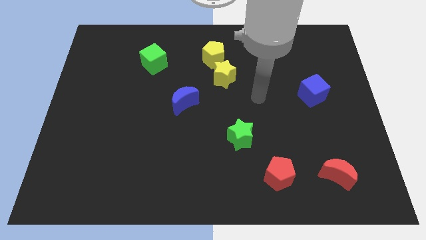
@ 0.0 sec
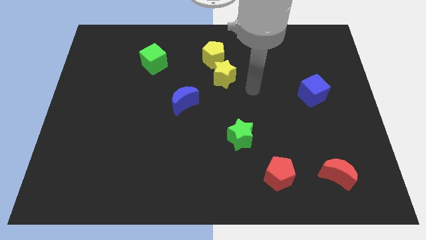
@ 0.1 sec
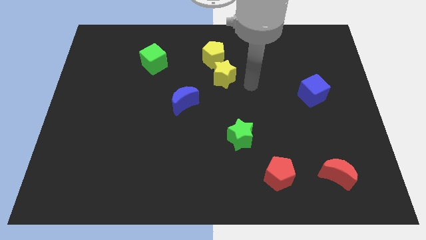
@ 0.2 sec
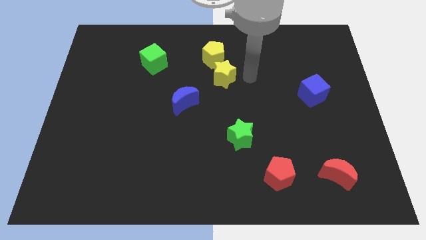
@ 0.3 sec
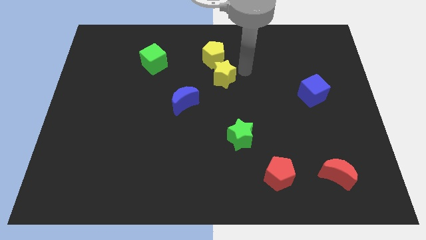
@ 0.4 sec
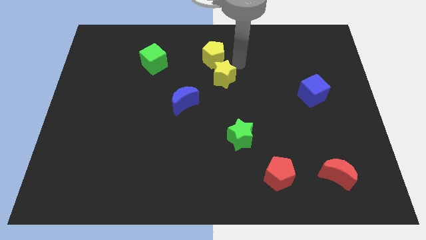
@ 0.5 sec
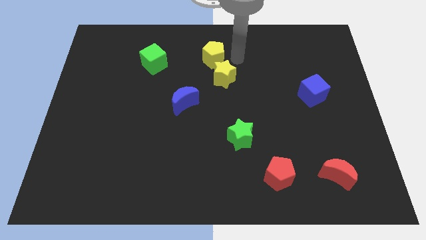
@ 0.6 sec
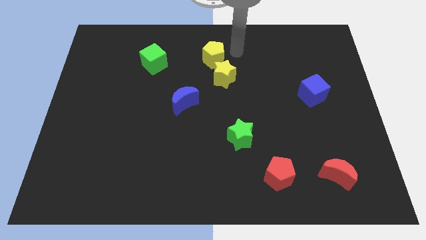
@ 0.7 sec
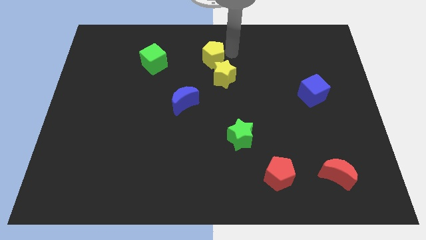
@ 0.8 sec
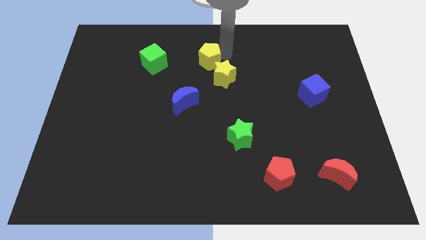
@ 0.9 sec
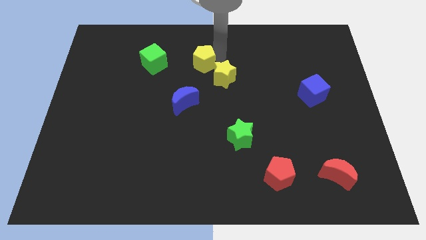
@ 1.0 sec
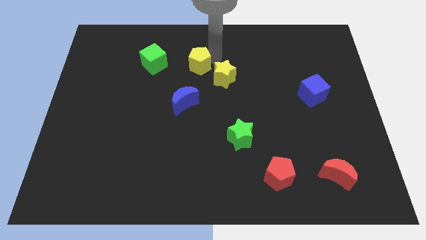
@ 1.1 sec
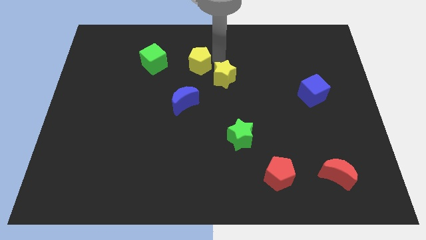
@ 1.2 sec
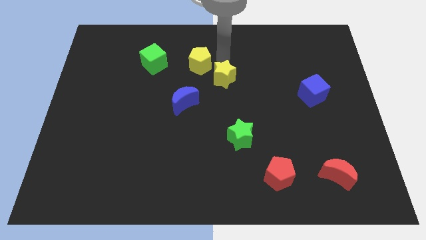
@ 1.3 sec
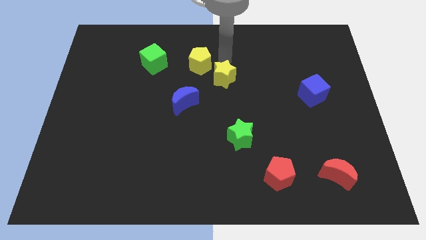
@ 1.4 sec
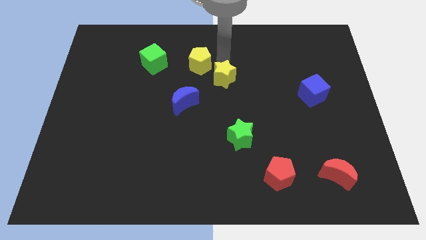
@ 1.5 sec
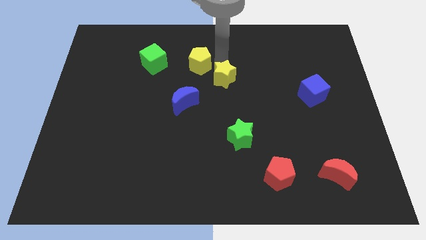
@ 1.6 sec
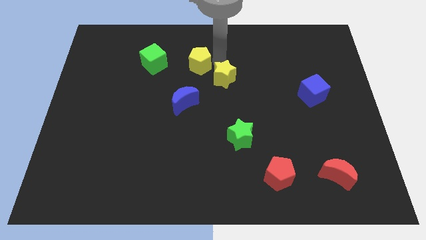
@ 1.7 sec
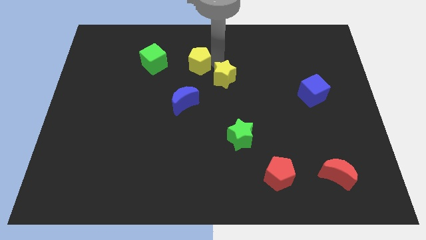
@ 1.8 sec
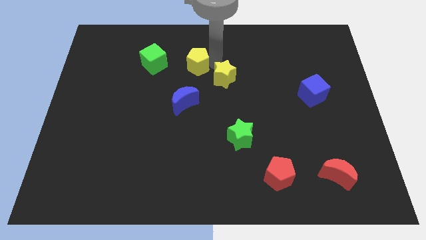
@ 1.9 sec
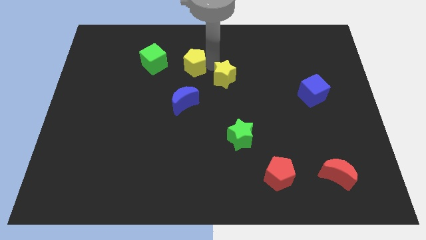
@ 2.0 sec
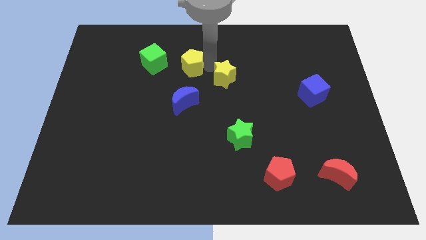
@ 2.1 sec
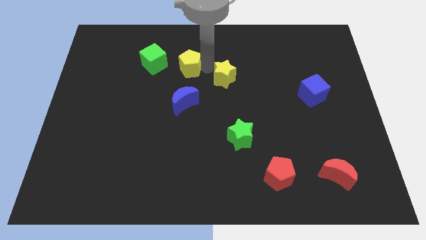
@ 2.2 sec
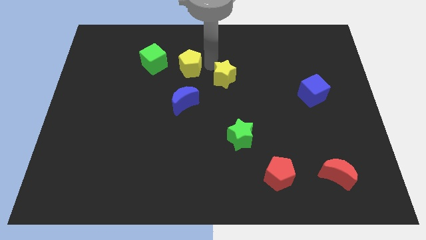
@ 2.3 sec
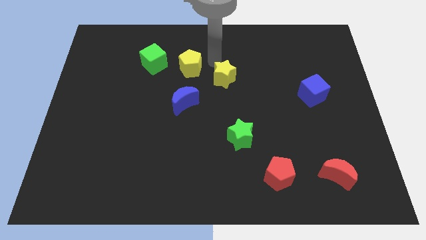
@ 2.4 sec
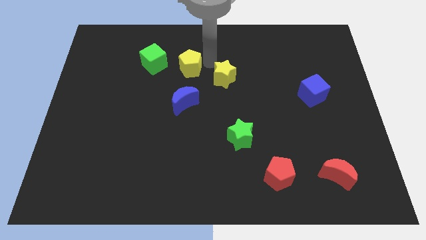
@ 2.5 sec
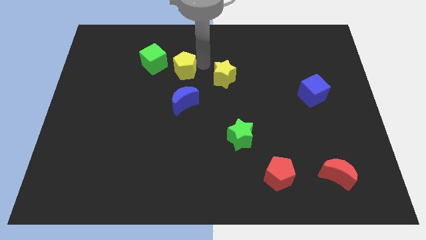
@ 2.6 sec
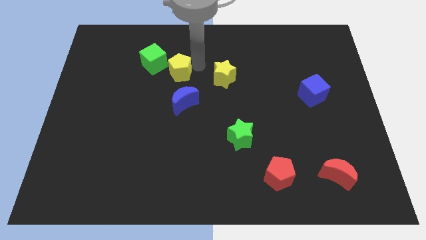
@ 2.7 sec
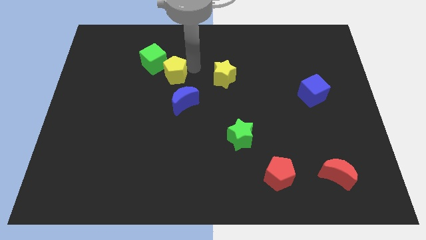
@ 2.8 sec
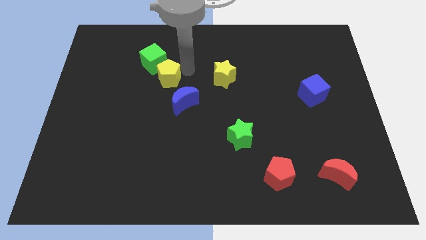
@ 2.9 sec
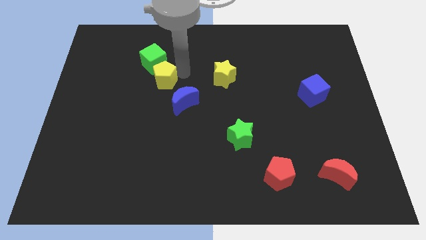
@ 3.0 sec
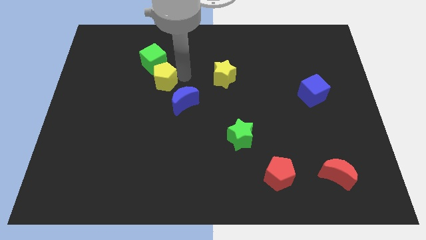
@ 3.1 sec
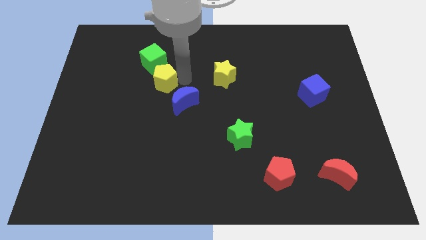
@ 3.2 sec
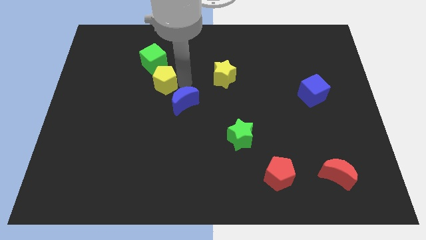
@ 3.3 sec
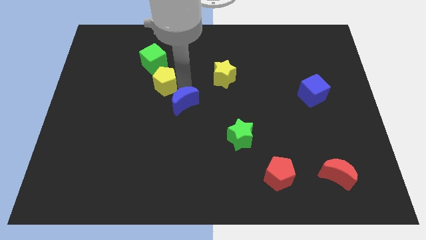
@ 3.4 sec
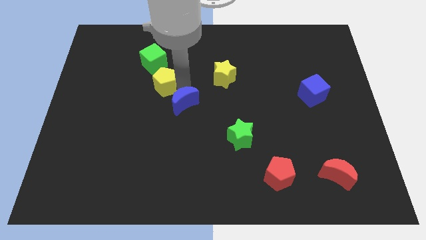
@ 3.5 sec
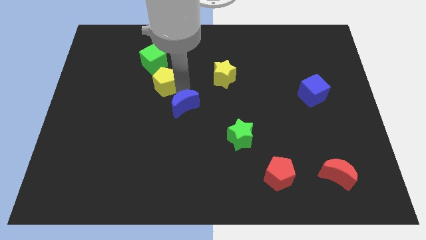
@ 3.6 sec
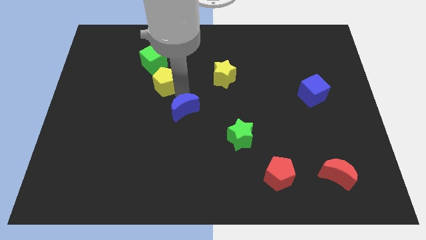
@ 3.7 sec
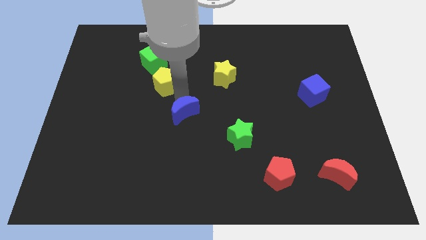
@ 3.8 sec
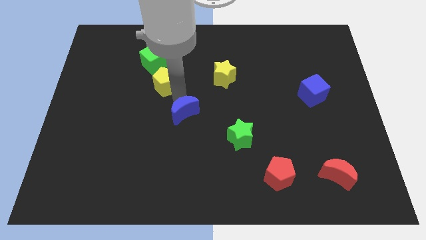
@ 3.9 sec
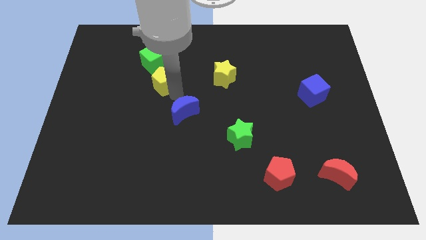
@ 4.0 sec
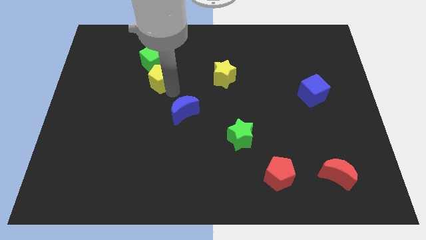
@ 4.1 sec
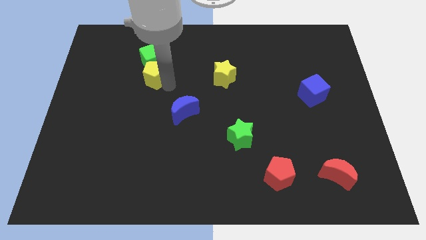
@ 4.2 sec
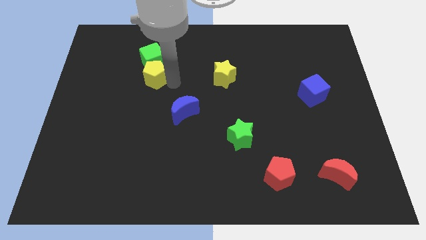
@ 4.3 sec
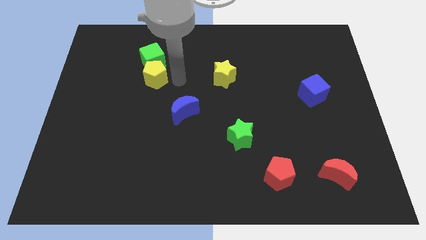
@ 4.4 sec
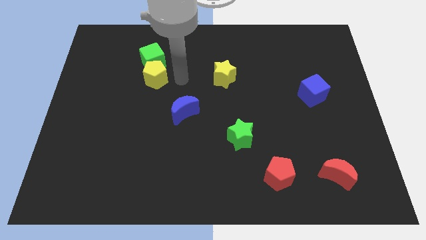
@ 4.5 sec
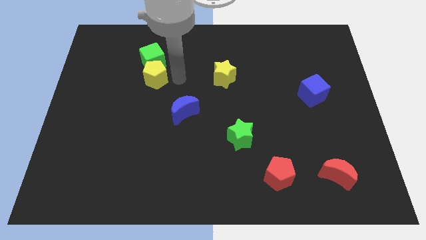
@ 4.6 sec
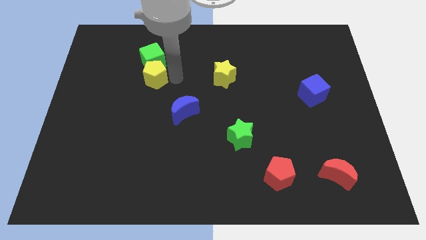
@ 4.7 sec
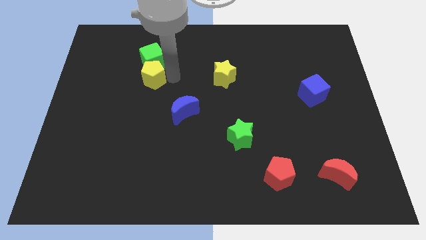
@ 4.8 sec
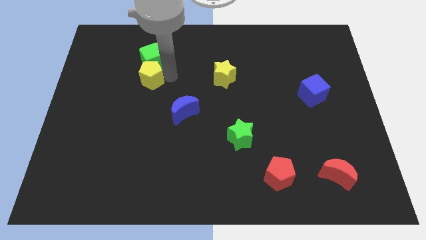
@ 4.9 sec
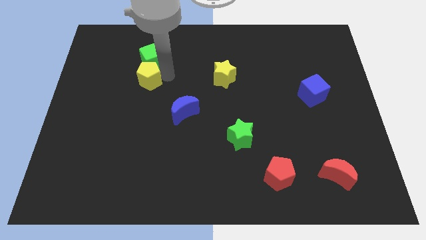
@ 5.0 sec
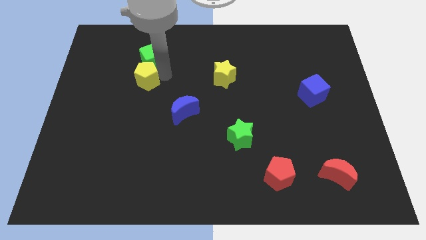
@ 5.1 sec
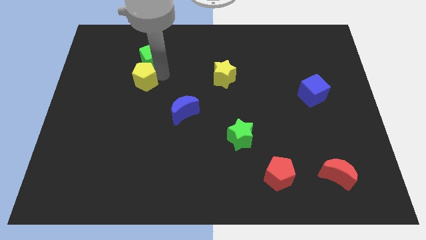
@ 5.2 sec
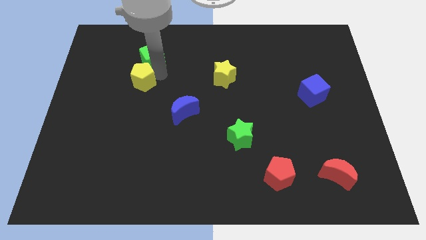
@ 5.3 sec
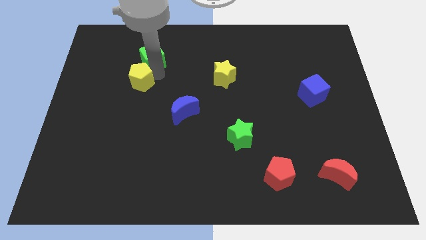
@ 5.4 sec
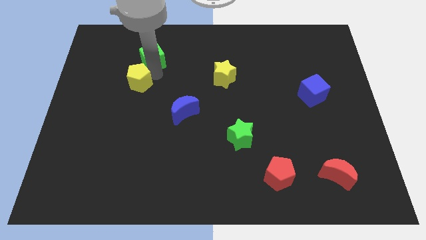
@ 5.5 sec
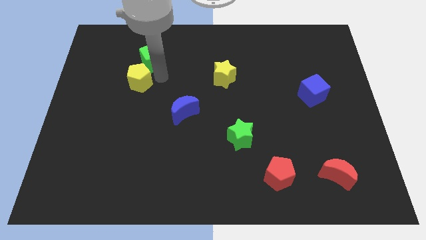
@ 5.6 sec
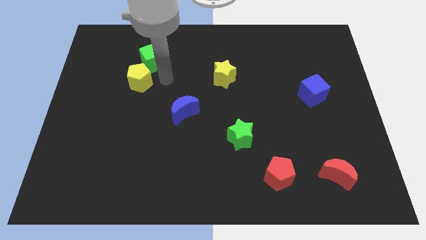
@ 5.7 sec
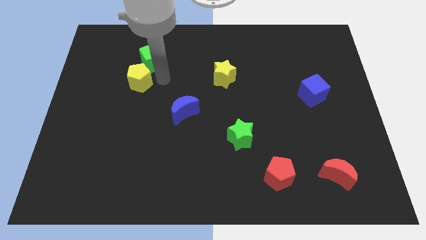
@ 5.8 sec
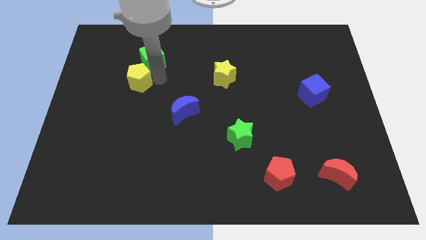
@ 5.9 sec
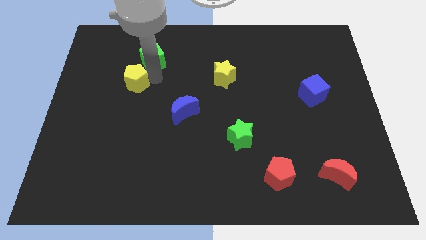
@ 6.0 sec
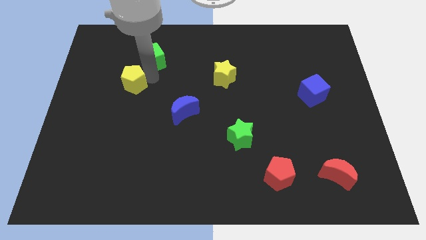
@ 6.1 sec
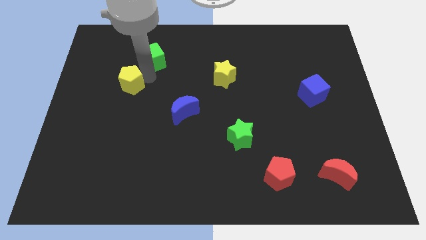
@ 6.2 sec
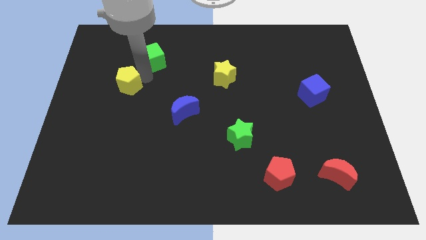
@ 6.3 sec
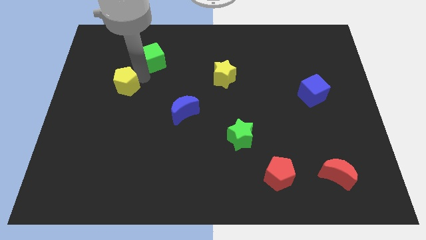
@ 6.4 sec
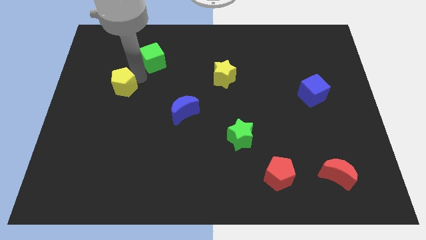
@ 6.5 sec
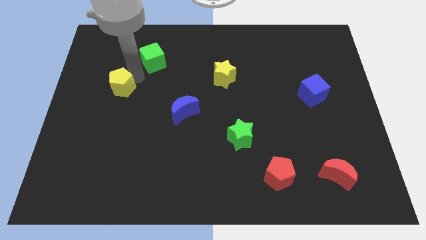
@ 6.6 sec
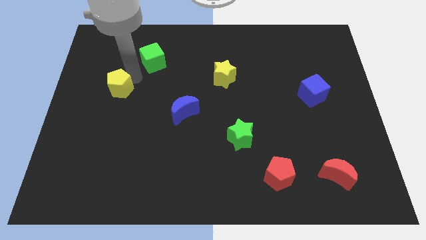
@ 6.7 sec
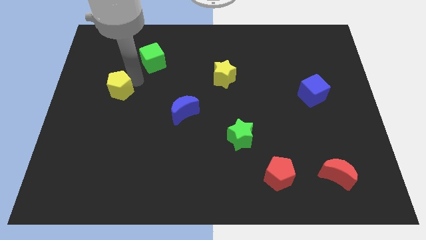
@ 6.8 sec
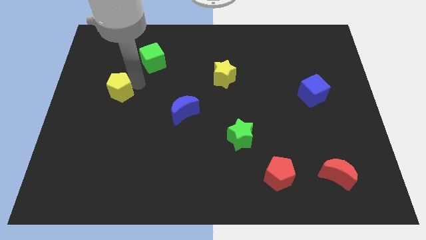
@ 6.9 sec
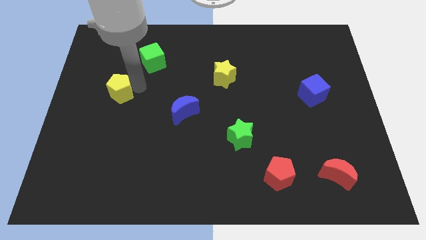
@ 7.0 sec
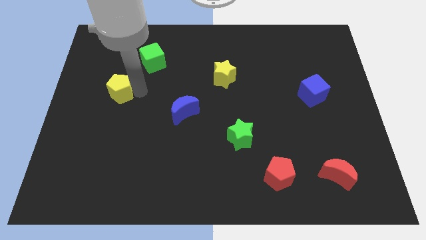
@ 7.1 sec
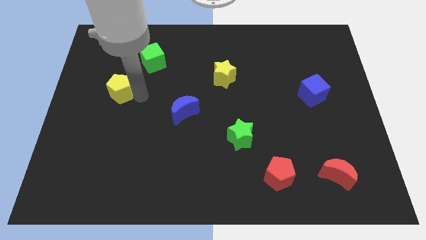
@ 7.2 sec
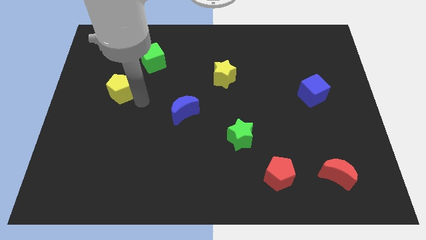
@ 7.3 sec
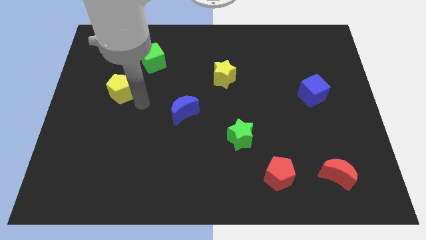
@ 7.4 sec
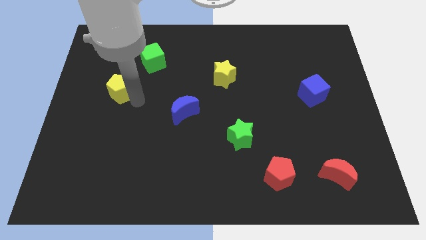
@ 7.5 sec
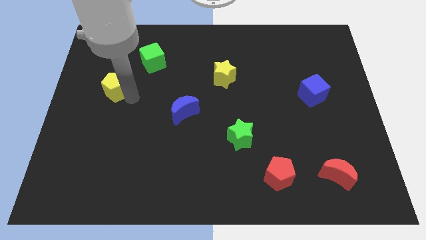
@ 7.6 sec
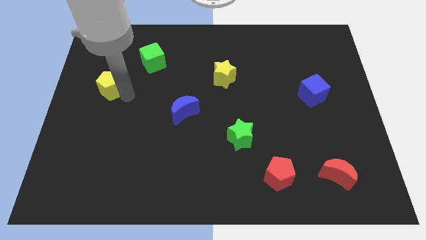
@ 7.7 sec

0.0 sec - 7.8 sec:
slide the yellow pentagon to the center left
